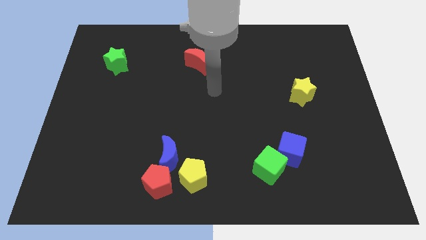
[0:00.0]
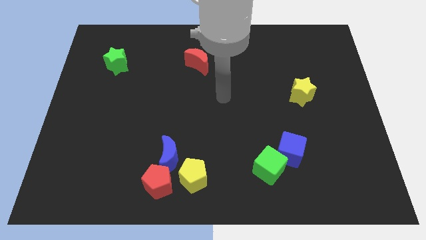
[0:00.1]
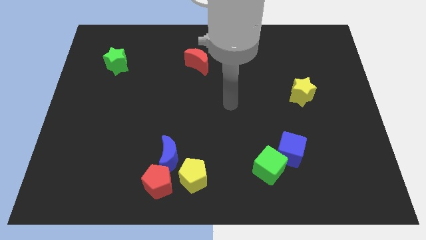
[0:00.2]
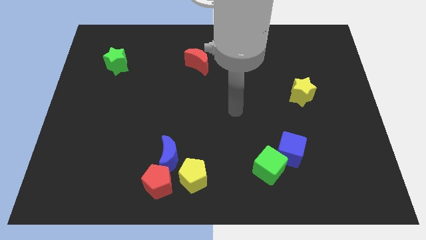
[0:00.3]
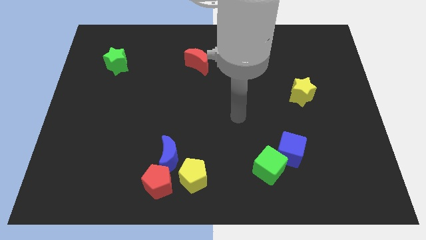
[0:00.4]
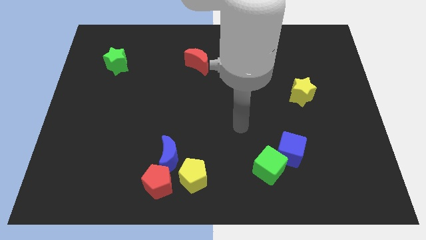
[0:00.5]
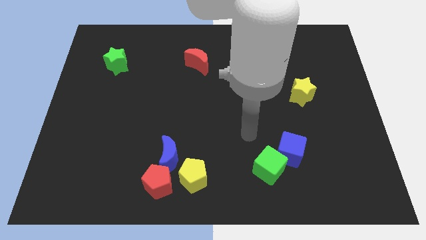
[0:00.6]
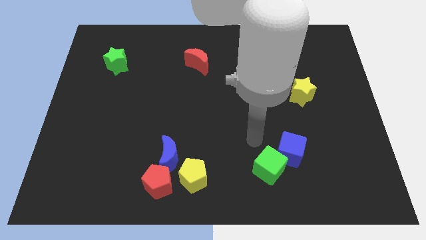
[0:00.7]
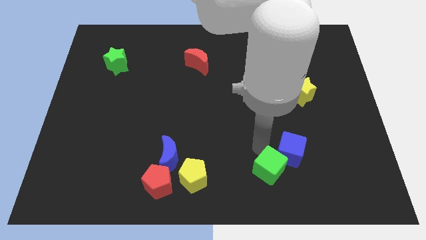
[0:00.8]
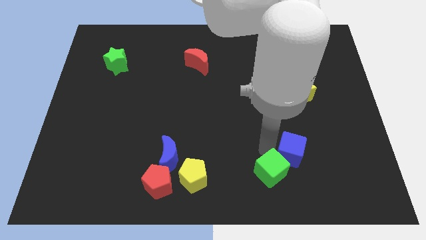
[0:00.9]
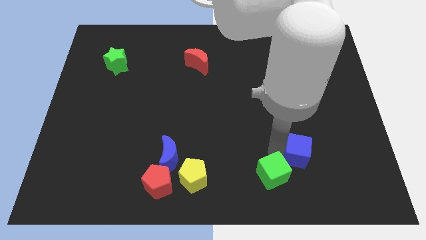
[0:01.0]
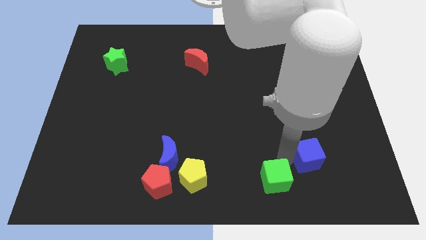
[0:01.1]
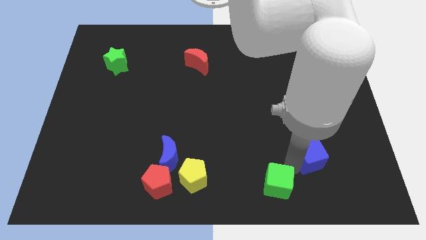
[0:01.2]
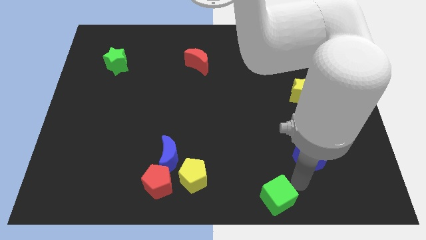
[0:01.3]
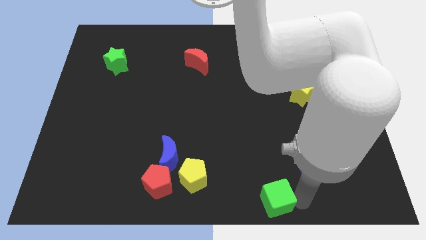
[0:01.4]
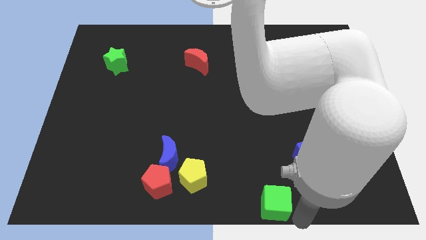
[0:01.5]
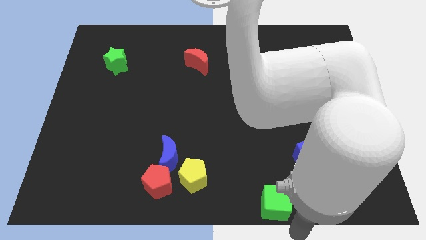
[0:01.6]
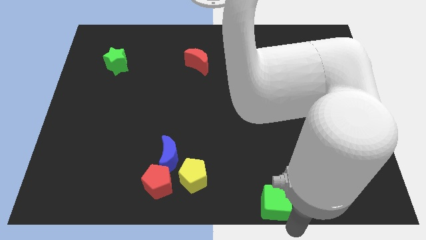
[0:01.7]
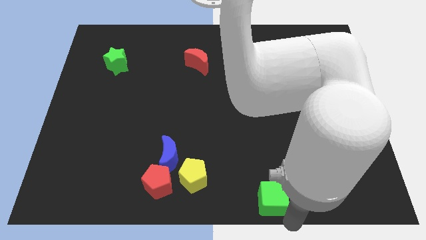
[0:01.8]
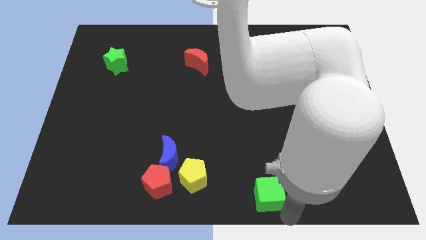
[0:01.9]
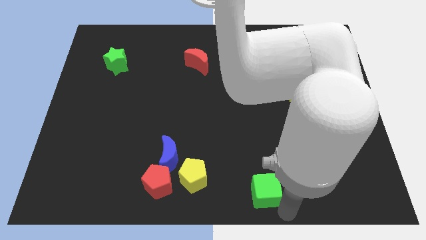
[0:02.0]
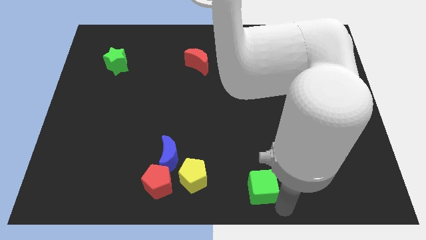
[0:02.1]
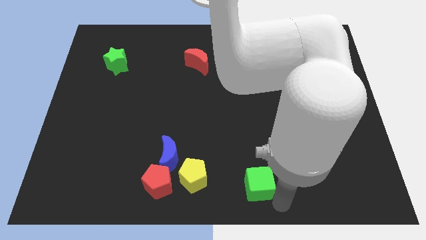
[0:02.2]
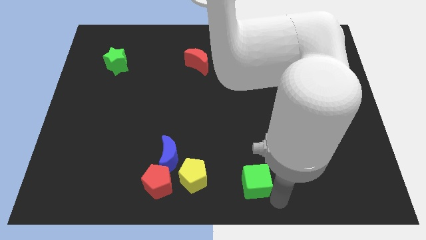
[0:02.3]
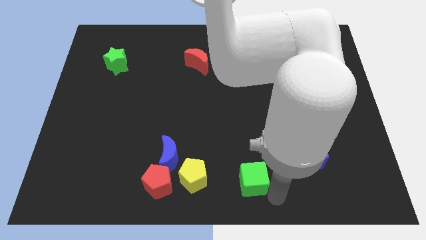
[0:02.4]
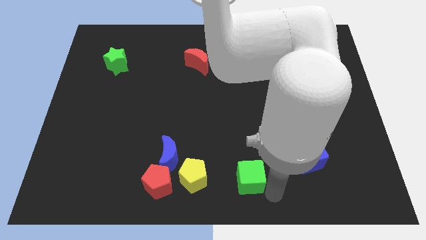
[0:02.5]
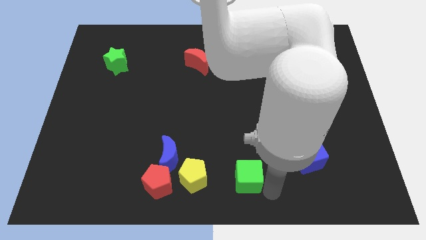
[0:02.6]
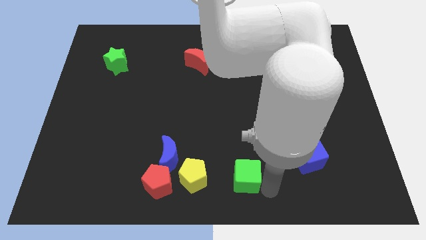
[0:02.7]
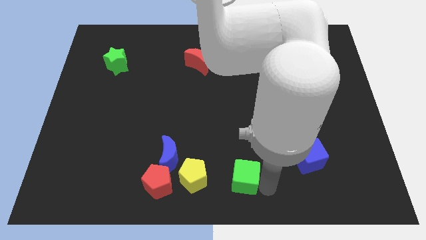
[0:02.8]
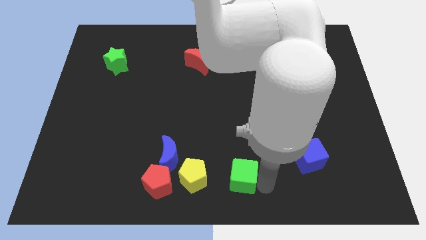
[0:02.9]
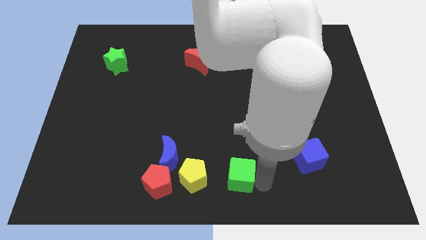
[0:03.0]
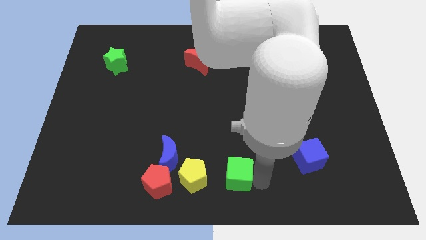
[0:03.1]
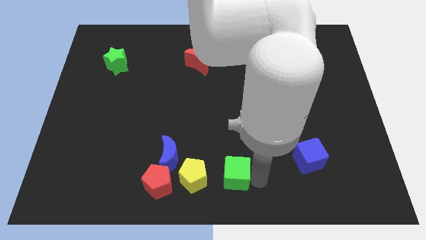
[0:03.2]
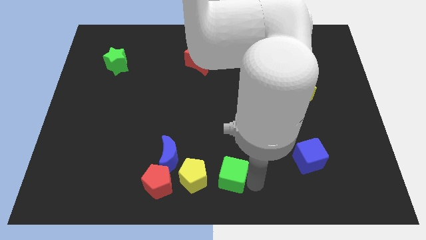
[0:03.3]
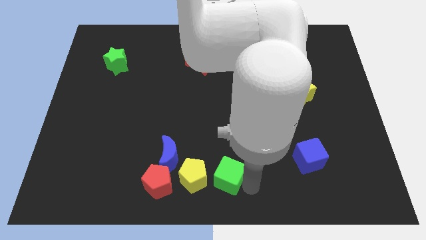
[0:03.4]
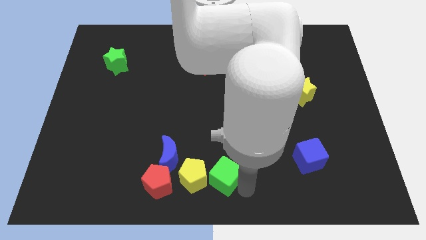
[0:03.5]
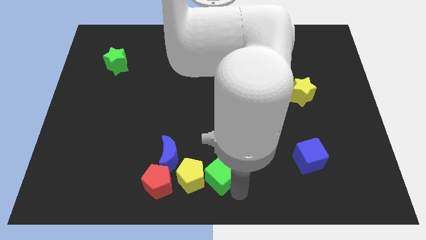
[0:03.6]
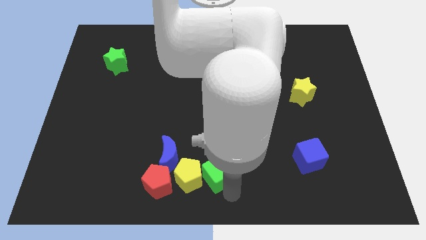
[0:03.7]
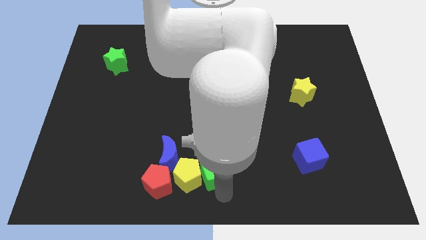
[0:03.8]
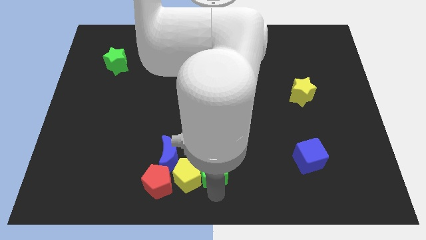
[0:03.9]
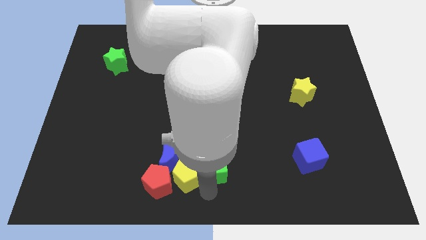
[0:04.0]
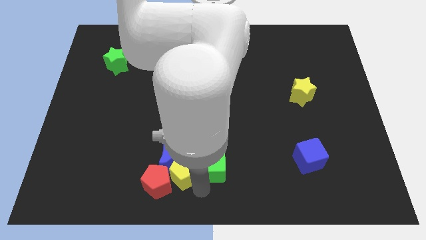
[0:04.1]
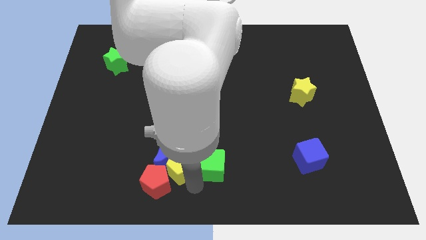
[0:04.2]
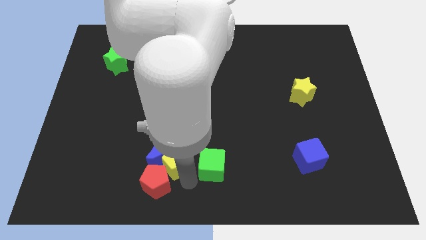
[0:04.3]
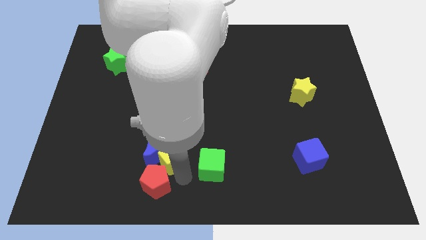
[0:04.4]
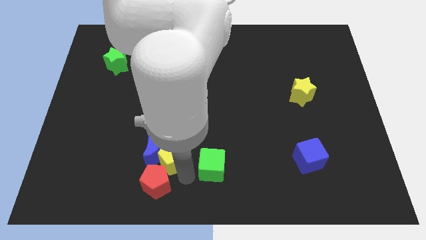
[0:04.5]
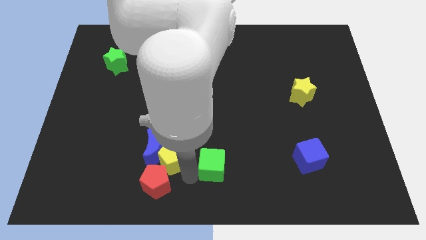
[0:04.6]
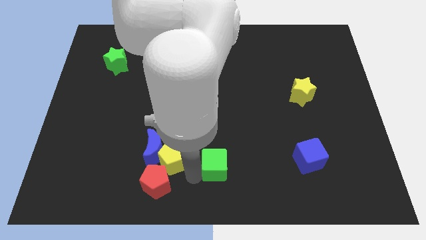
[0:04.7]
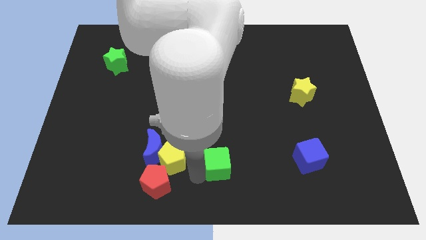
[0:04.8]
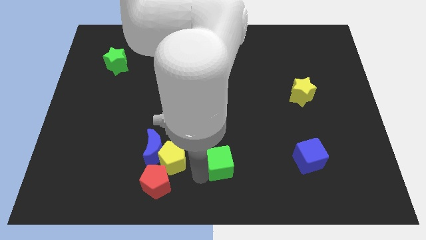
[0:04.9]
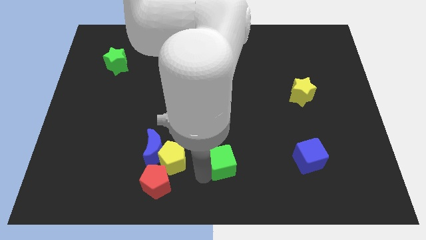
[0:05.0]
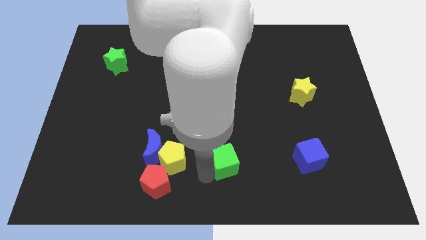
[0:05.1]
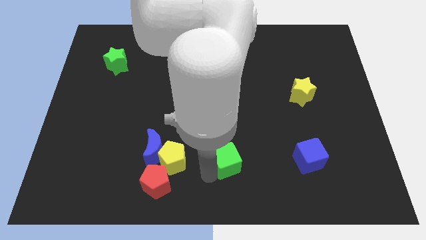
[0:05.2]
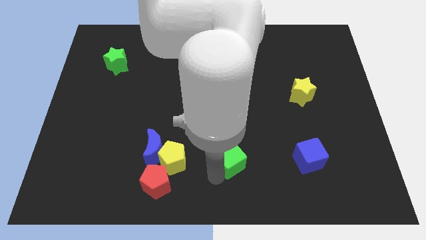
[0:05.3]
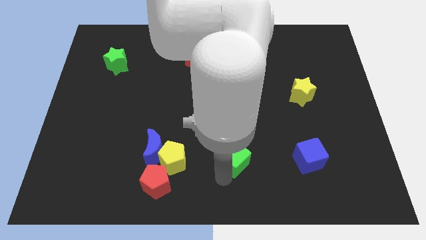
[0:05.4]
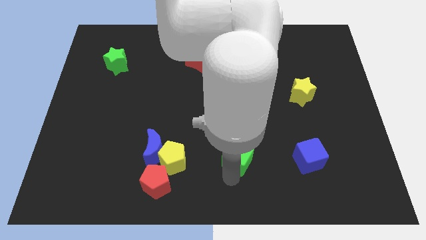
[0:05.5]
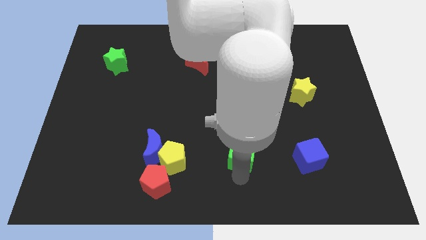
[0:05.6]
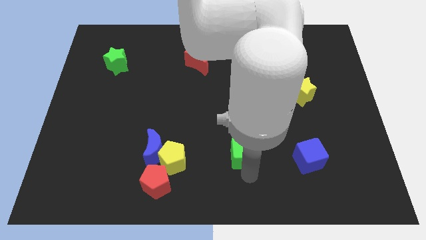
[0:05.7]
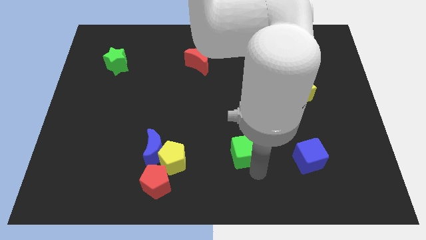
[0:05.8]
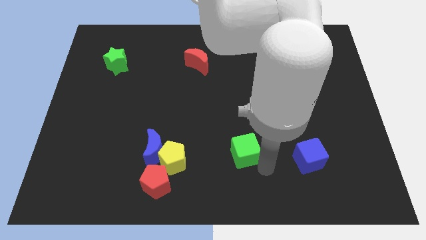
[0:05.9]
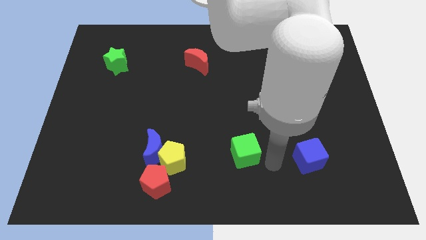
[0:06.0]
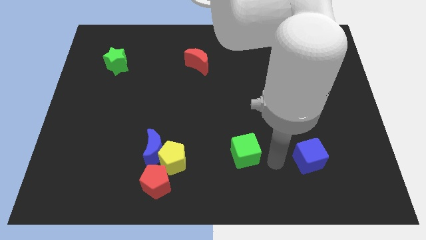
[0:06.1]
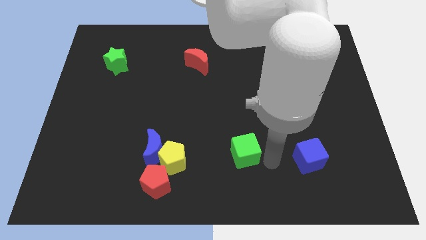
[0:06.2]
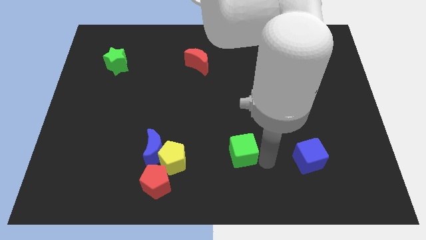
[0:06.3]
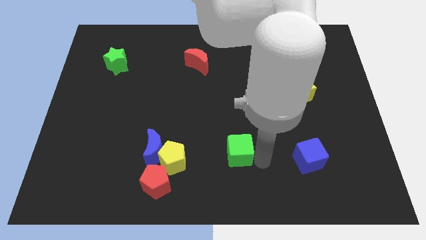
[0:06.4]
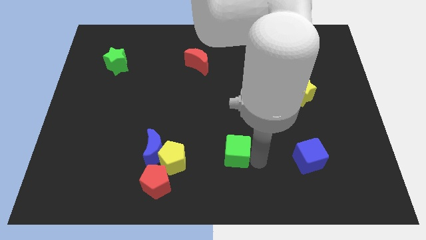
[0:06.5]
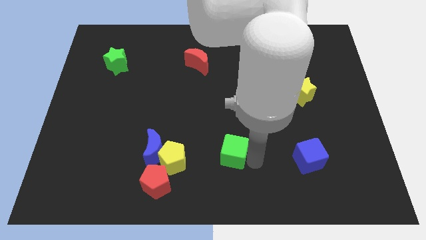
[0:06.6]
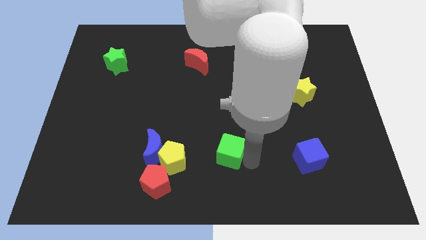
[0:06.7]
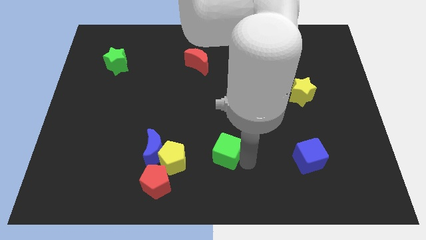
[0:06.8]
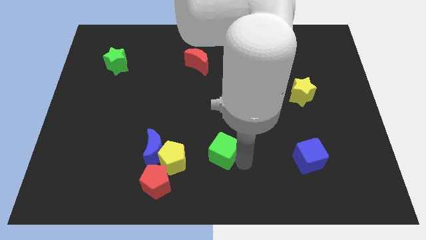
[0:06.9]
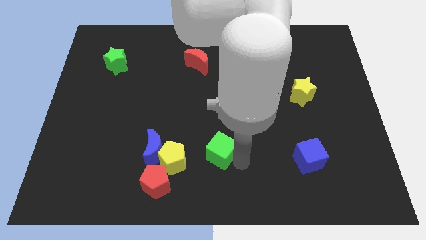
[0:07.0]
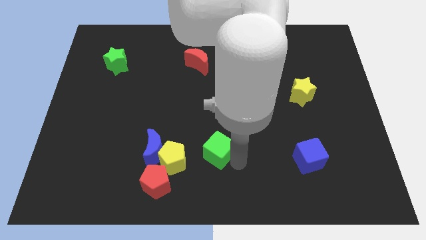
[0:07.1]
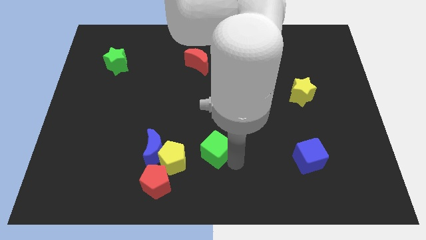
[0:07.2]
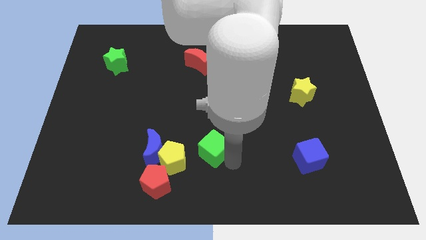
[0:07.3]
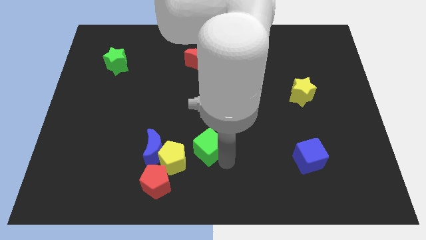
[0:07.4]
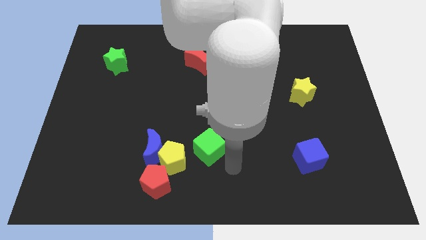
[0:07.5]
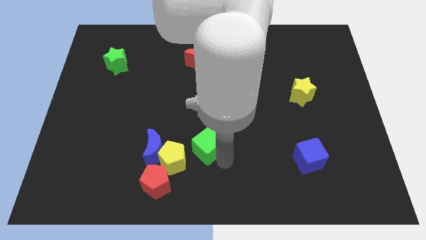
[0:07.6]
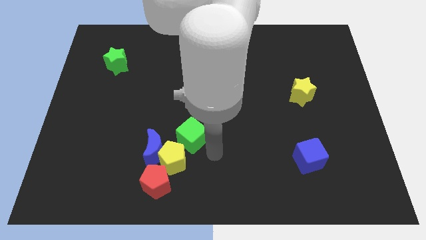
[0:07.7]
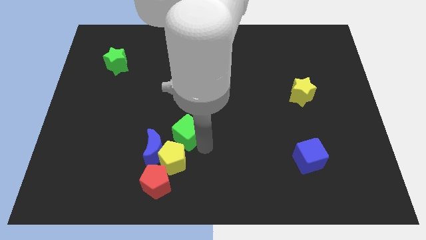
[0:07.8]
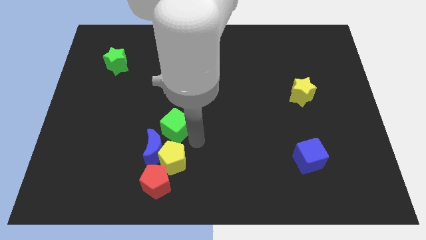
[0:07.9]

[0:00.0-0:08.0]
slide the green cube above the blue moon
